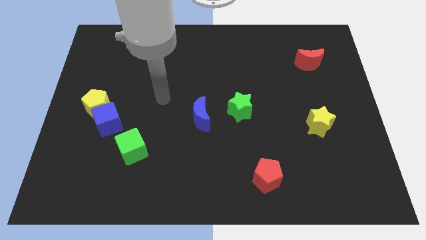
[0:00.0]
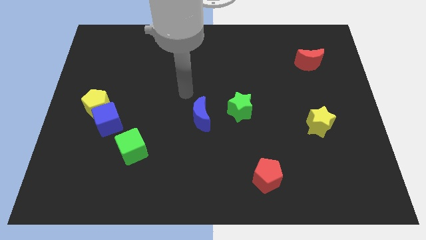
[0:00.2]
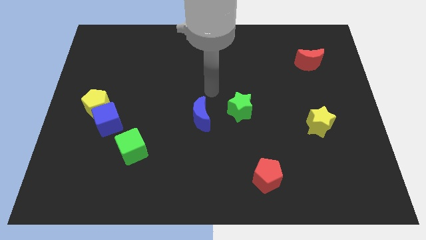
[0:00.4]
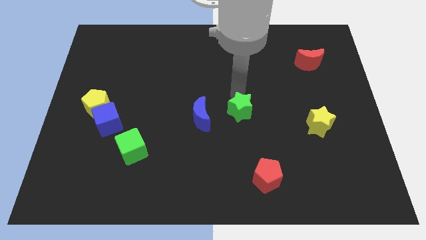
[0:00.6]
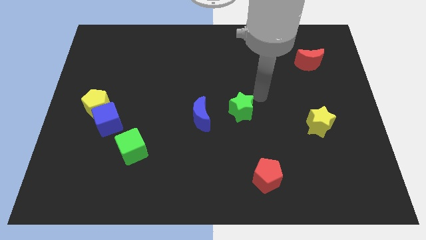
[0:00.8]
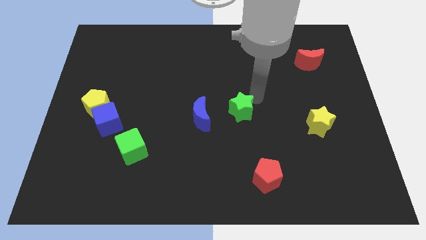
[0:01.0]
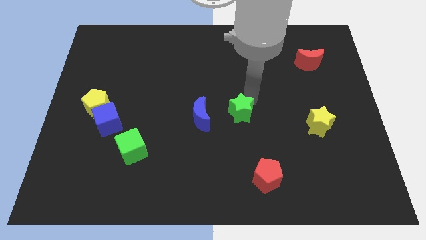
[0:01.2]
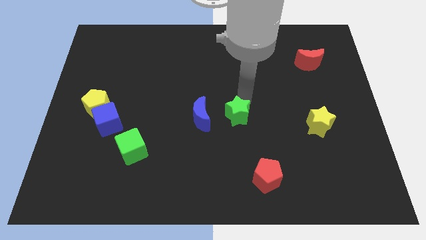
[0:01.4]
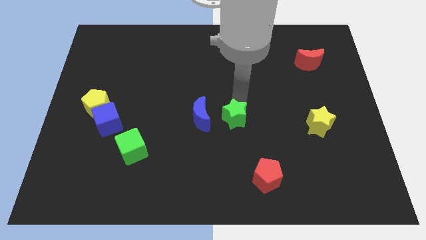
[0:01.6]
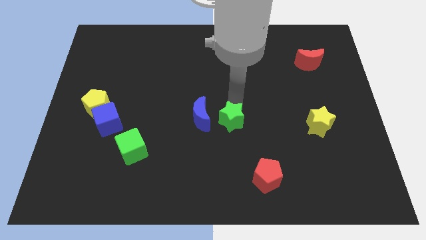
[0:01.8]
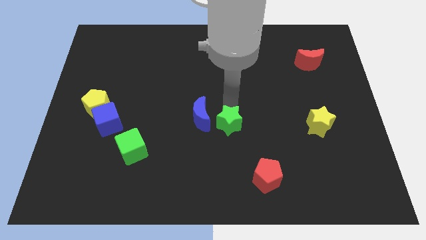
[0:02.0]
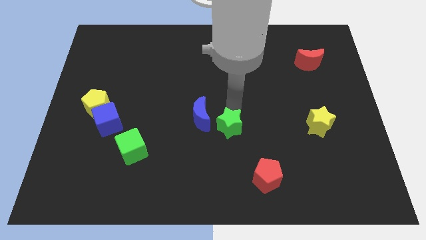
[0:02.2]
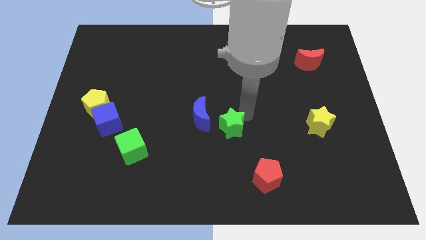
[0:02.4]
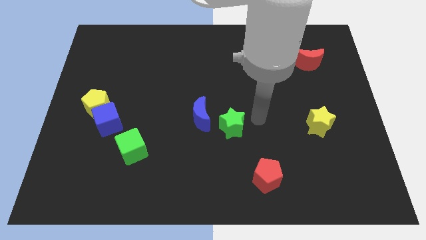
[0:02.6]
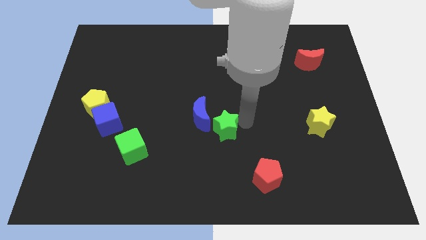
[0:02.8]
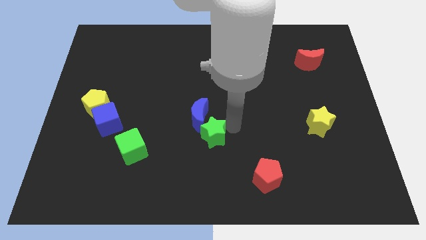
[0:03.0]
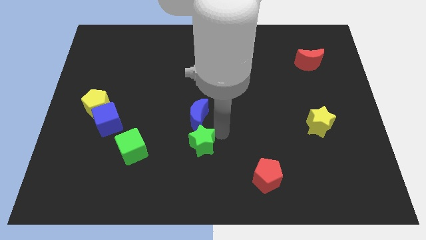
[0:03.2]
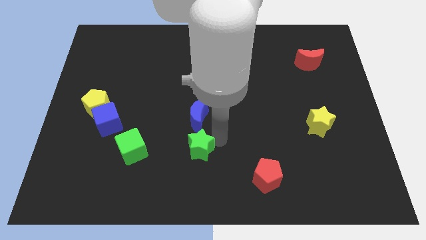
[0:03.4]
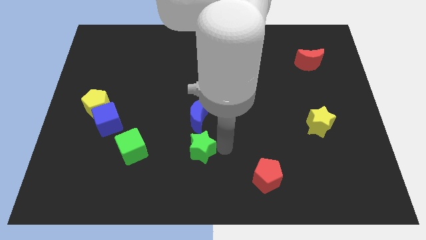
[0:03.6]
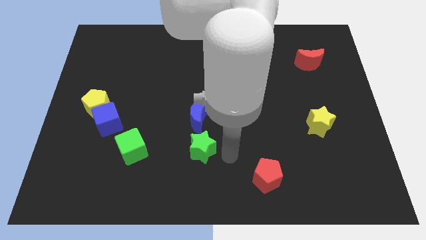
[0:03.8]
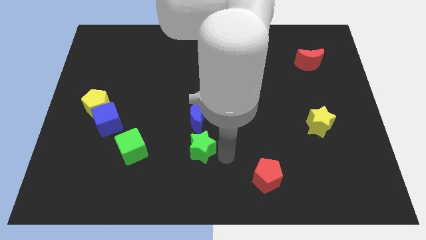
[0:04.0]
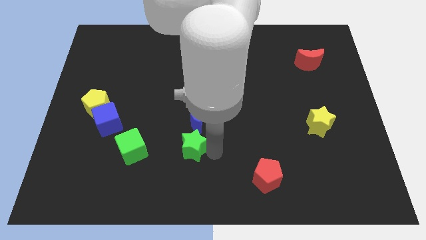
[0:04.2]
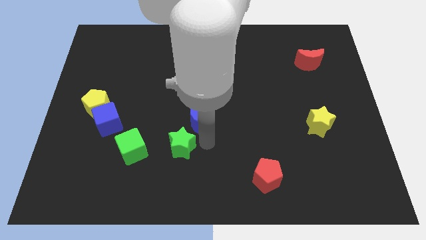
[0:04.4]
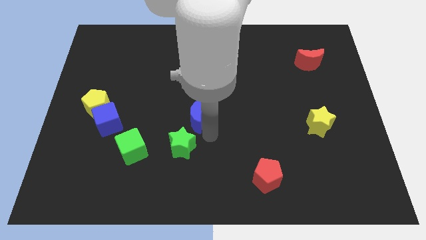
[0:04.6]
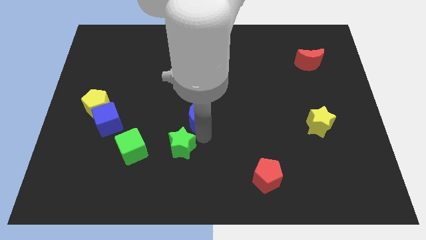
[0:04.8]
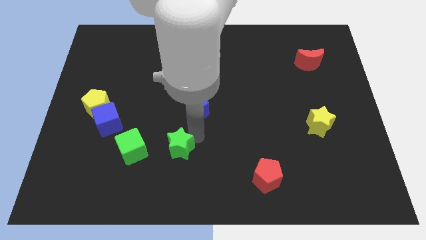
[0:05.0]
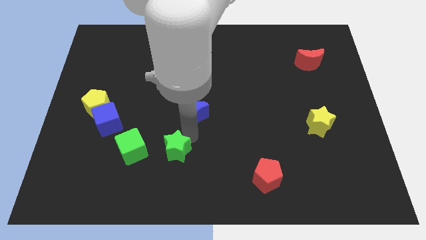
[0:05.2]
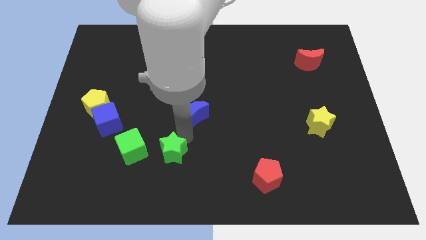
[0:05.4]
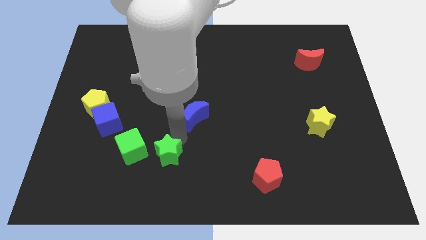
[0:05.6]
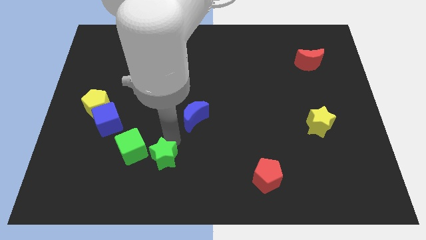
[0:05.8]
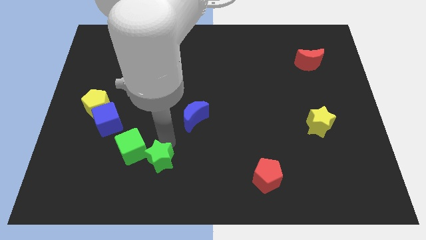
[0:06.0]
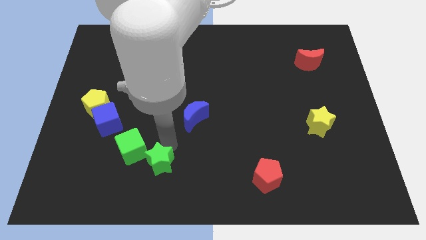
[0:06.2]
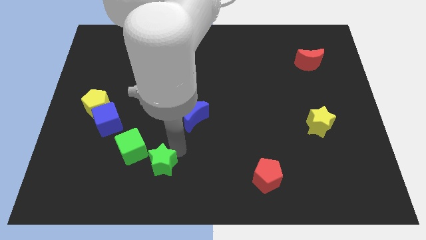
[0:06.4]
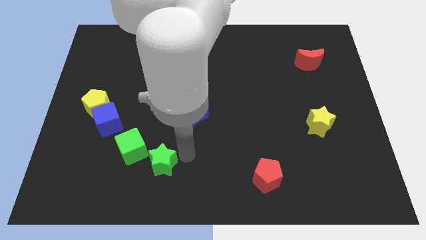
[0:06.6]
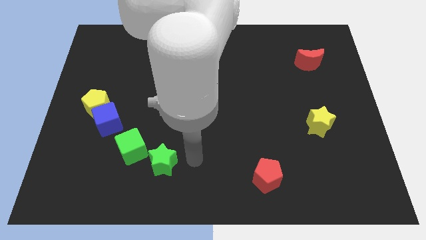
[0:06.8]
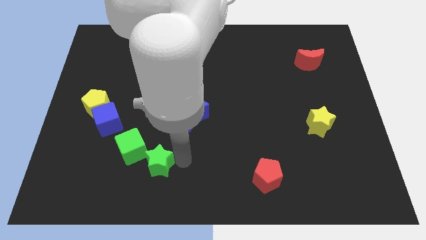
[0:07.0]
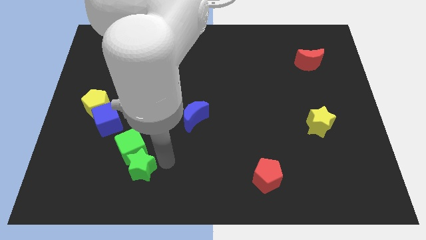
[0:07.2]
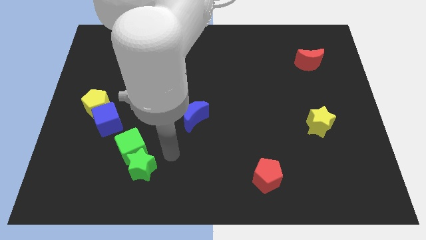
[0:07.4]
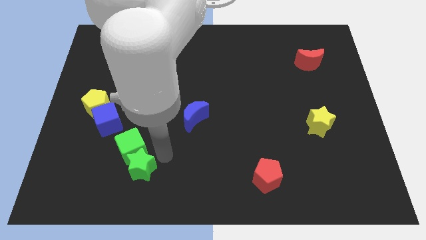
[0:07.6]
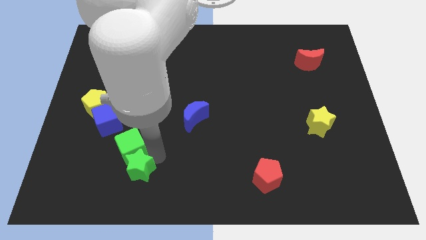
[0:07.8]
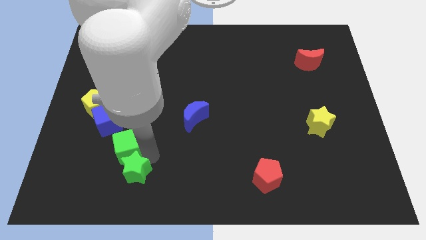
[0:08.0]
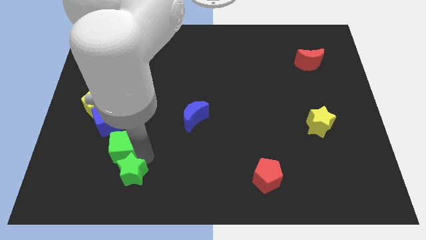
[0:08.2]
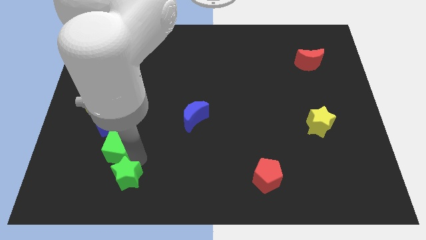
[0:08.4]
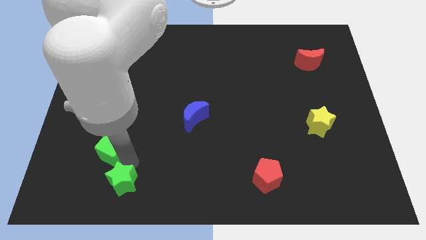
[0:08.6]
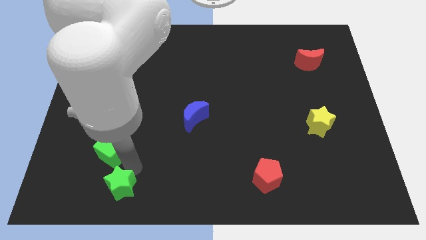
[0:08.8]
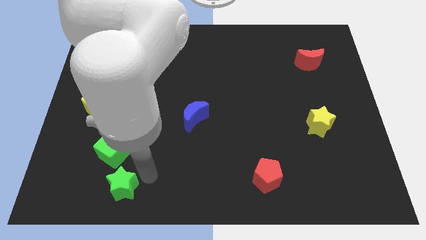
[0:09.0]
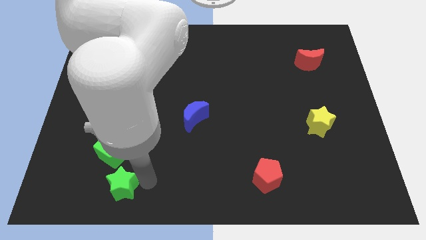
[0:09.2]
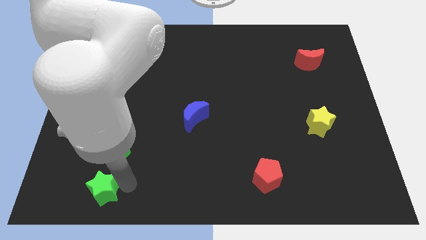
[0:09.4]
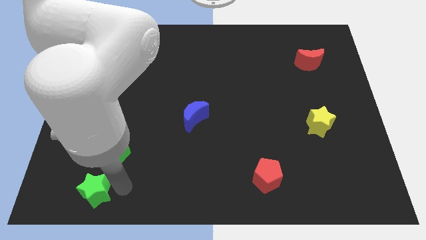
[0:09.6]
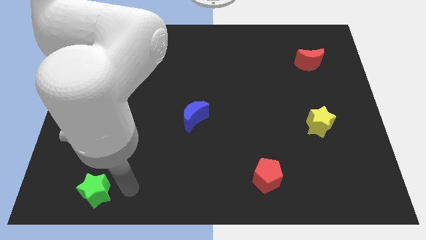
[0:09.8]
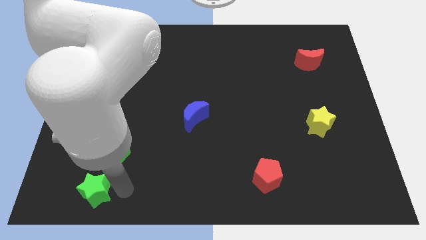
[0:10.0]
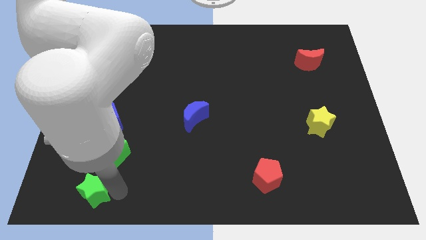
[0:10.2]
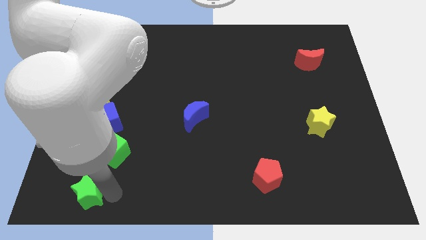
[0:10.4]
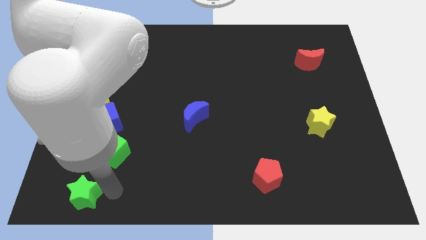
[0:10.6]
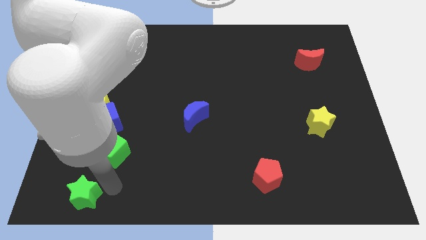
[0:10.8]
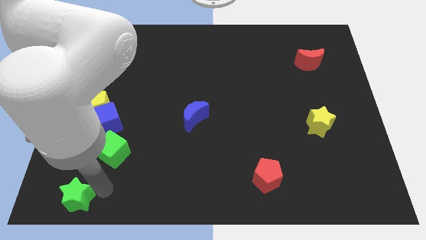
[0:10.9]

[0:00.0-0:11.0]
push the green star to the bottom left
